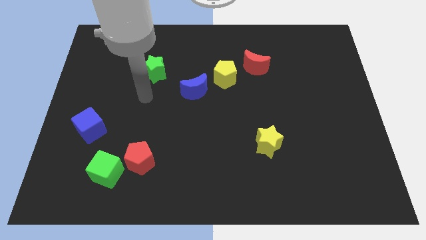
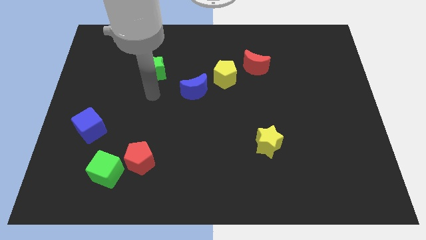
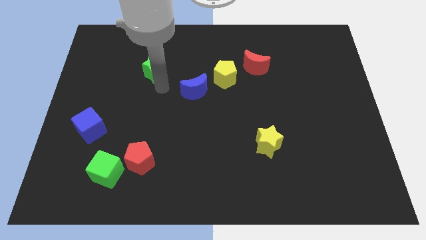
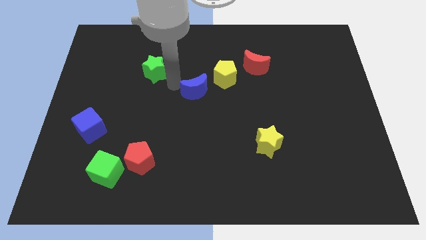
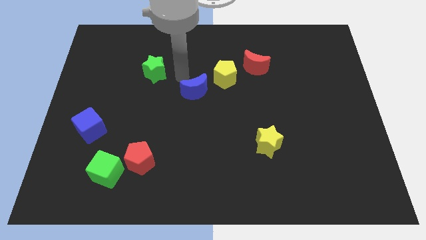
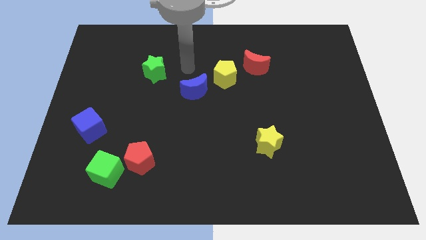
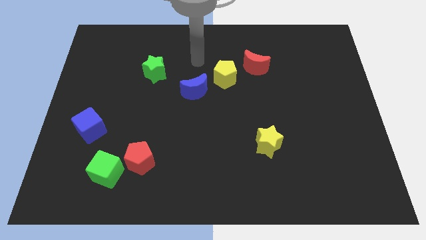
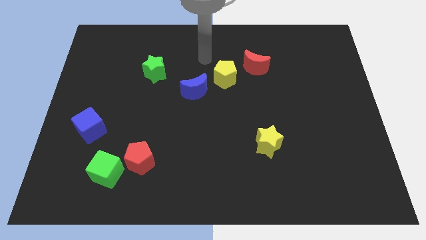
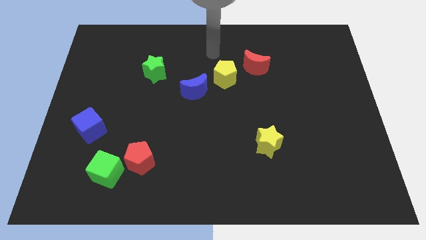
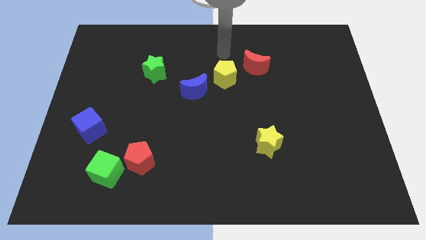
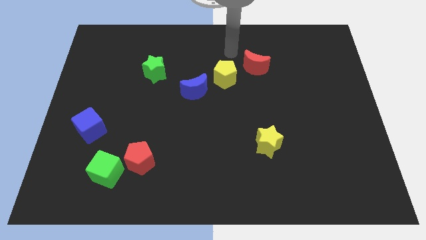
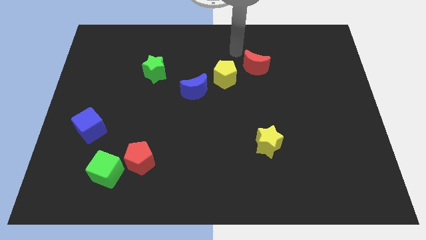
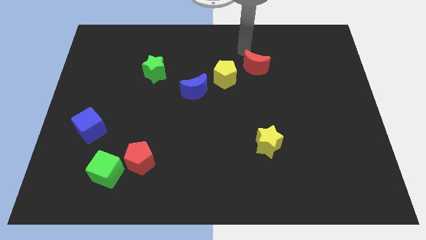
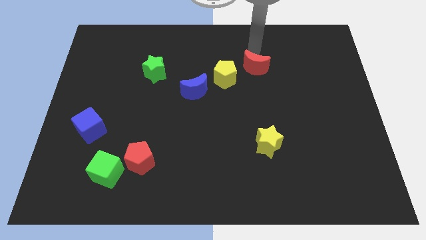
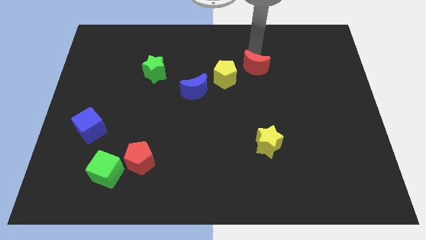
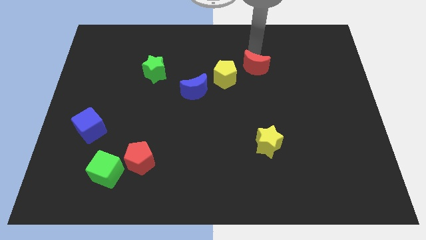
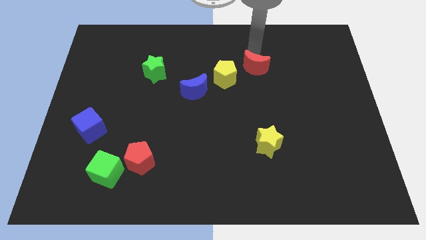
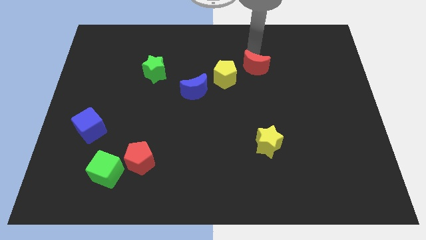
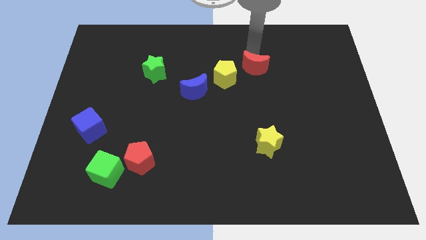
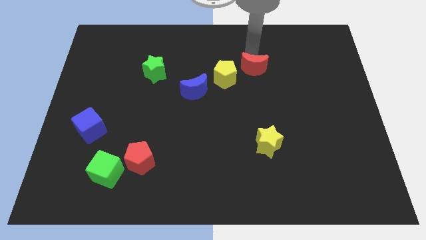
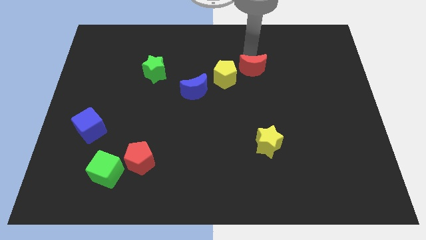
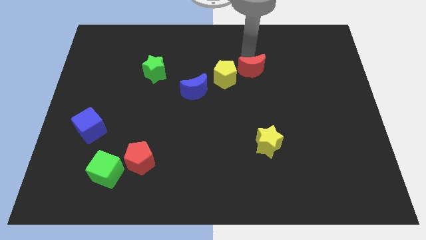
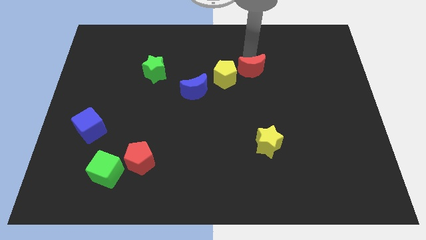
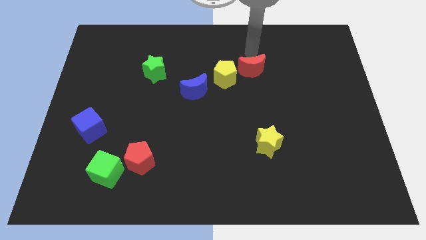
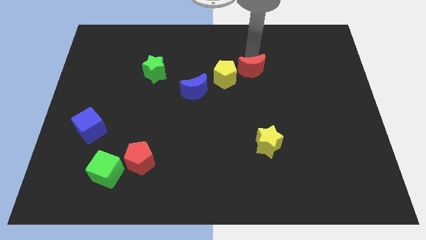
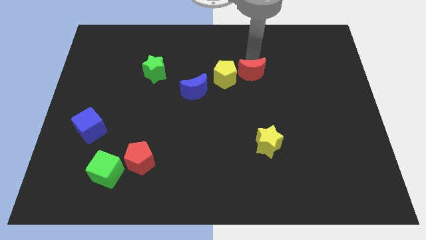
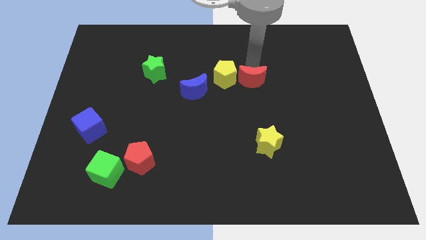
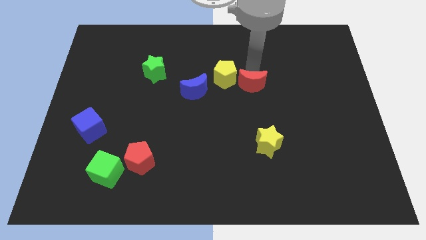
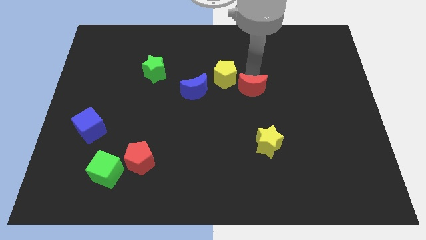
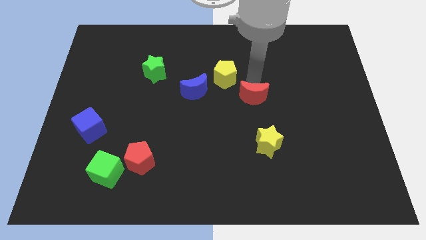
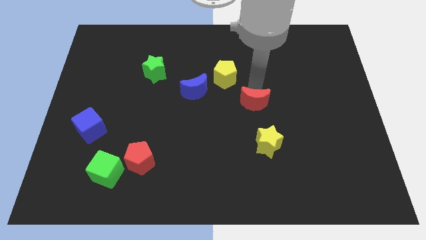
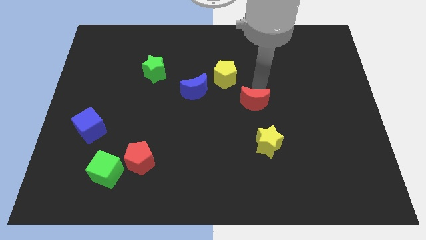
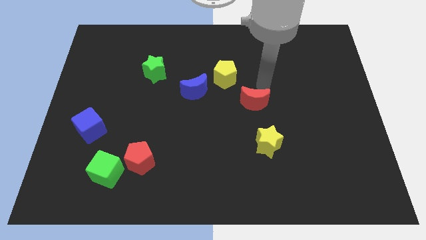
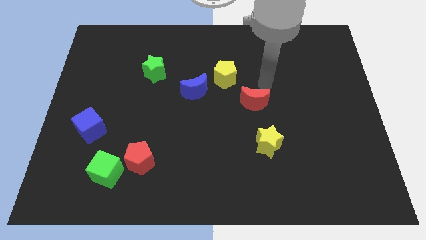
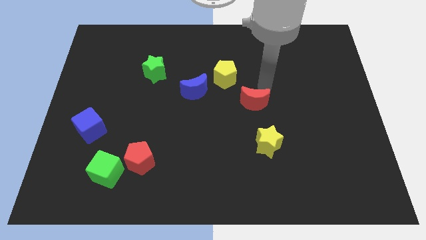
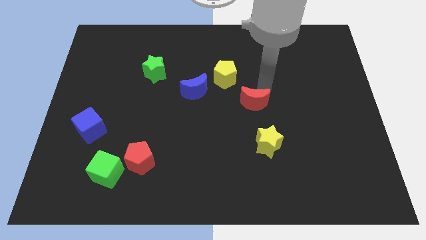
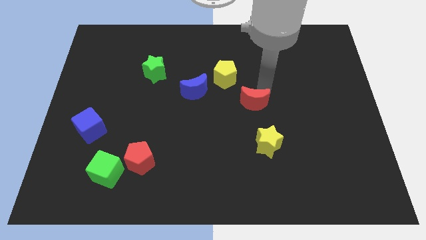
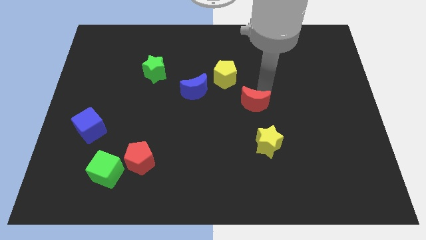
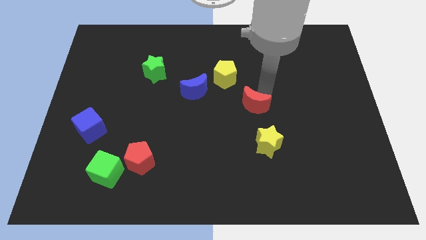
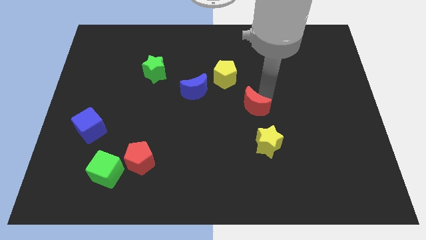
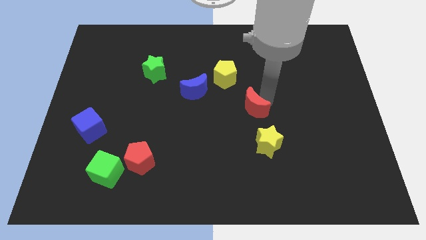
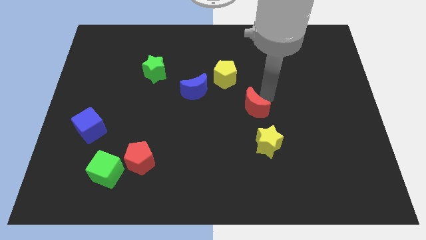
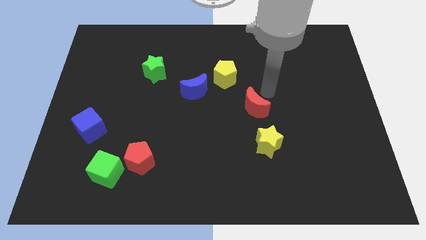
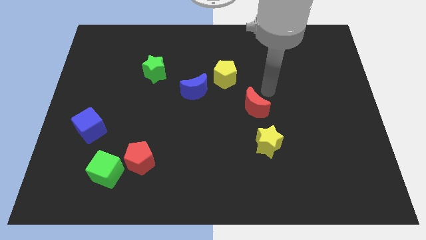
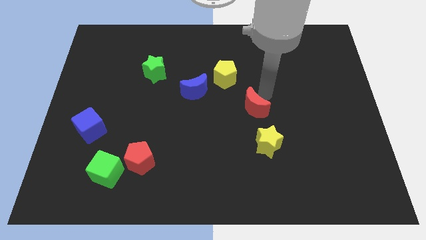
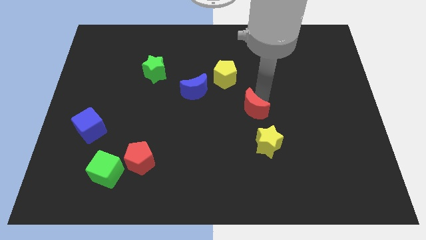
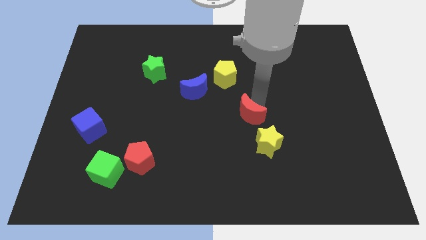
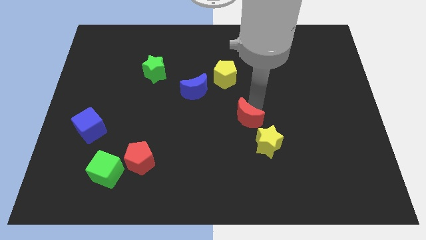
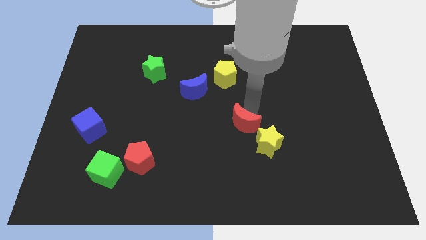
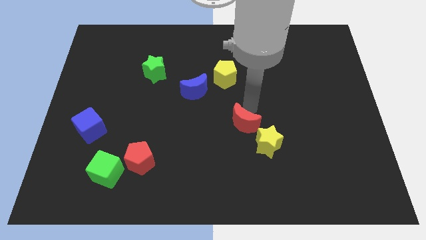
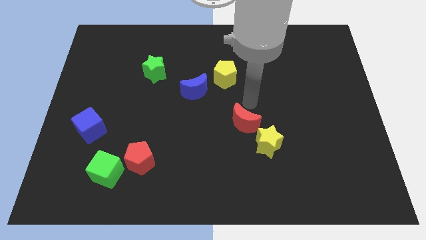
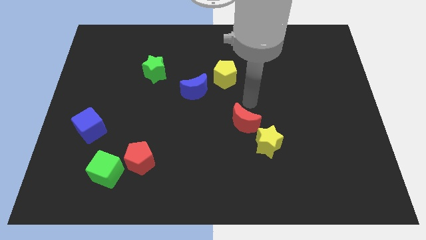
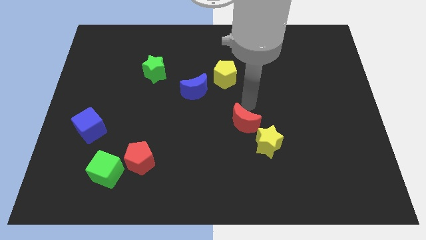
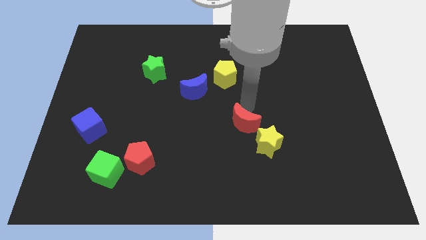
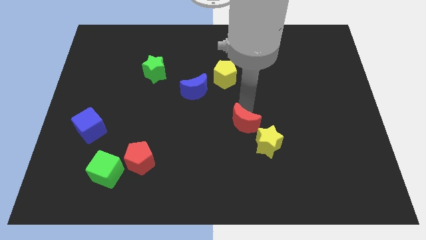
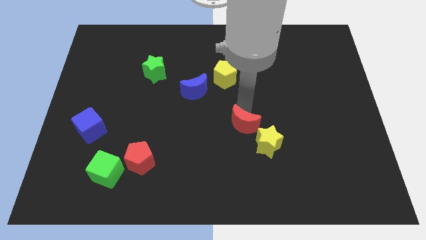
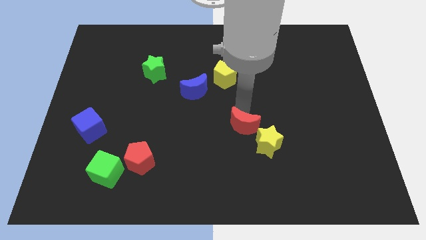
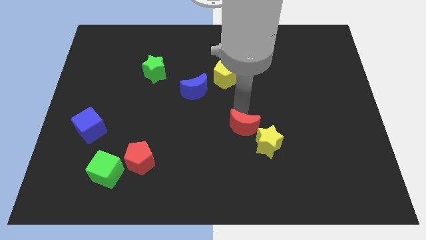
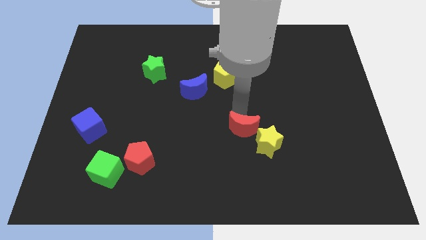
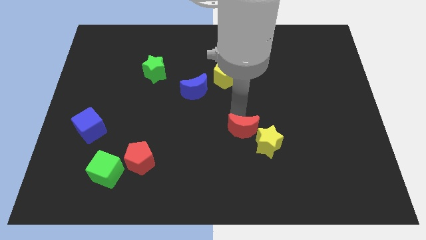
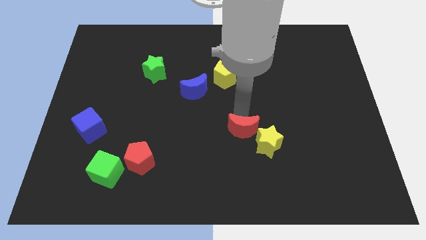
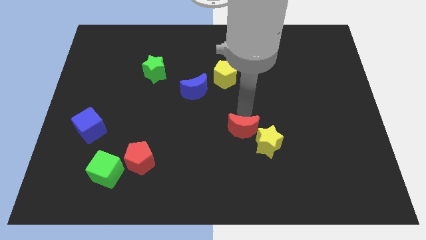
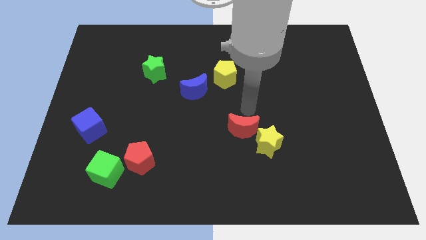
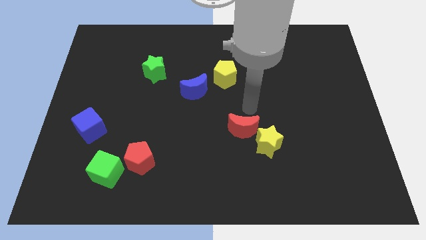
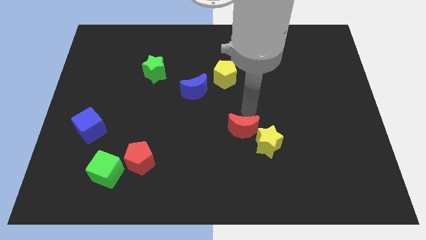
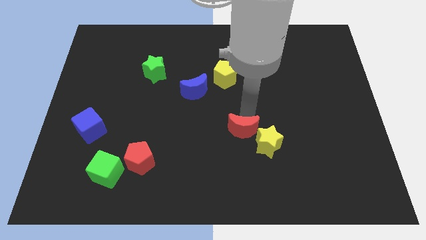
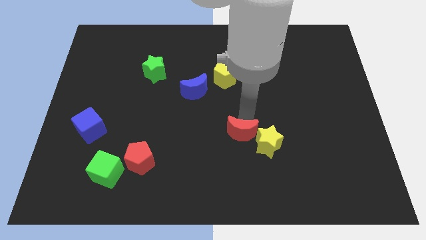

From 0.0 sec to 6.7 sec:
move the red moon down

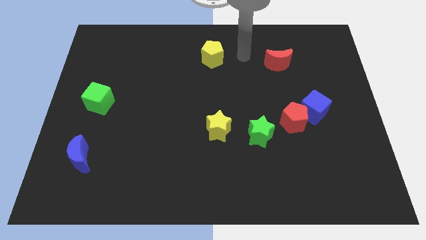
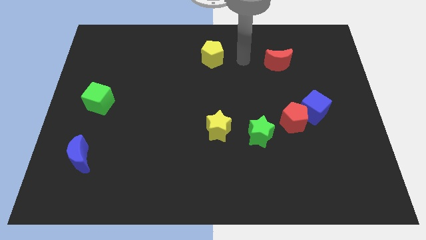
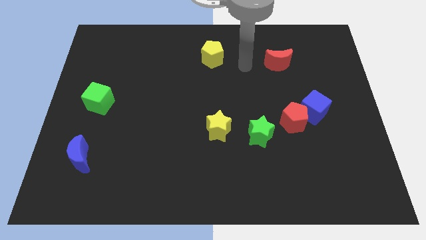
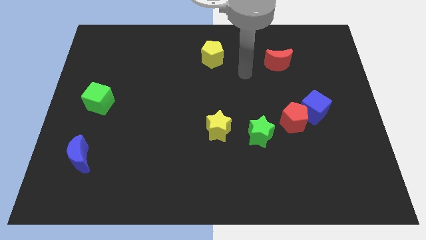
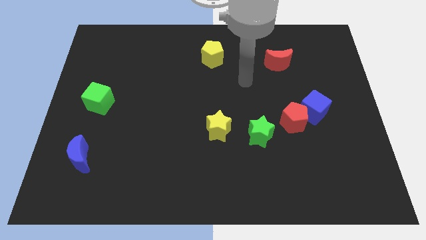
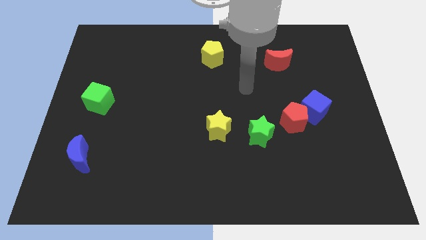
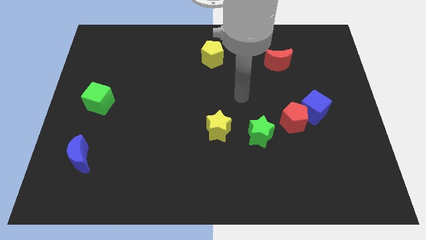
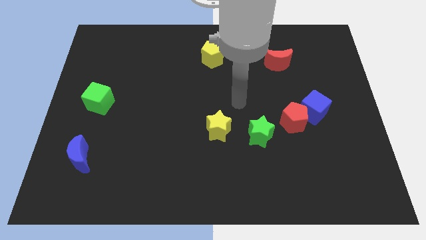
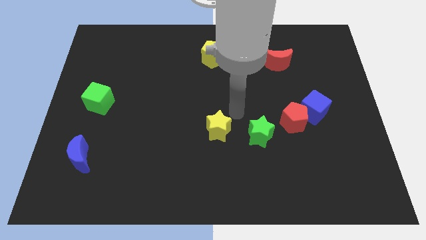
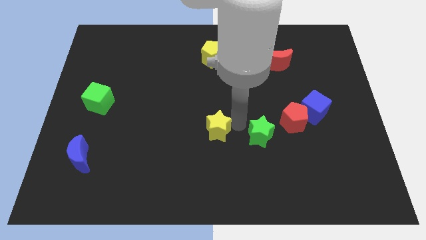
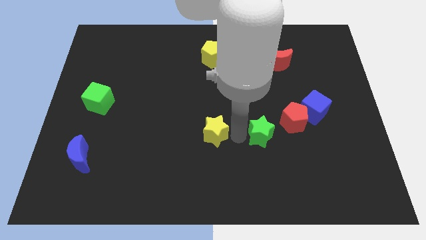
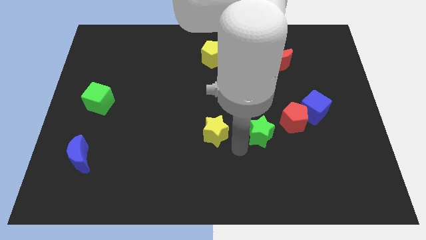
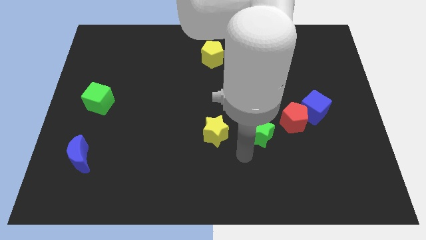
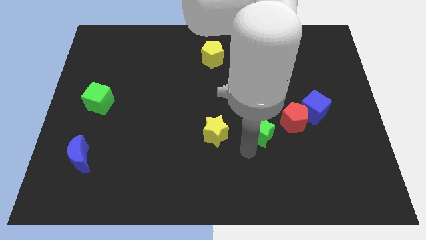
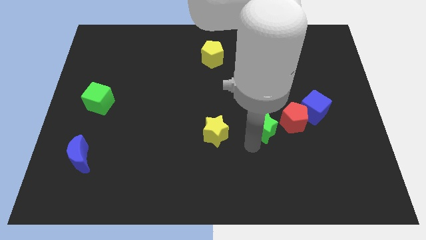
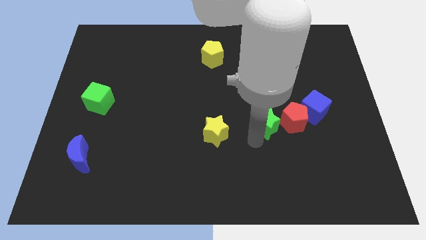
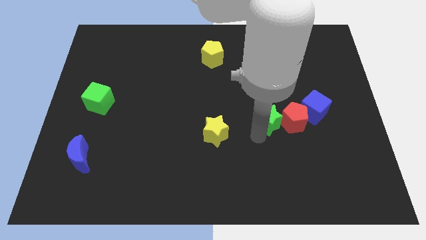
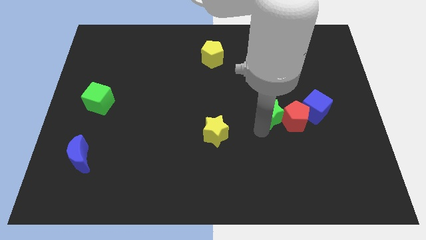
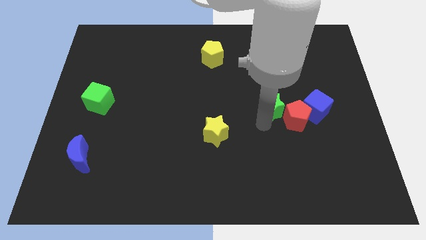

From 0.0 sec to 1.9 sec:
push the green star slightly up and to the right
